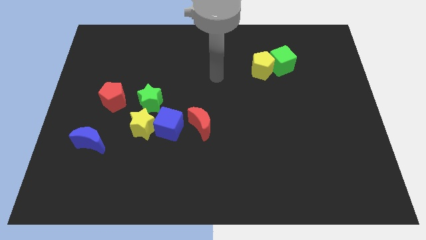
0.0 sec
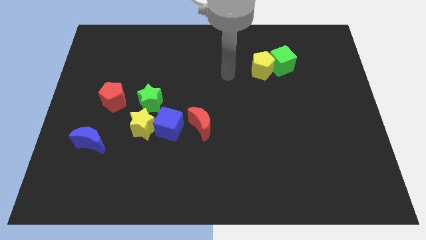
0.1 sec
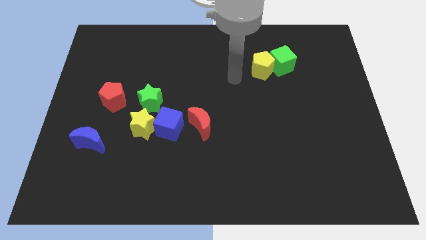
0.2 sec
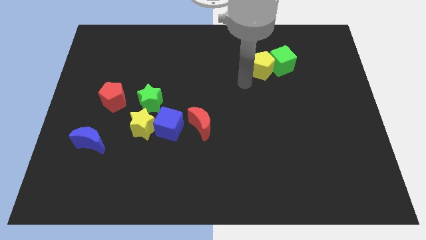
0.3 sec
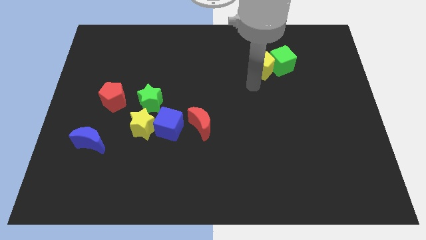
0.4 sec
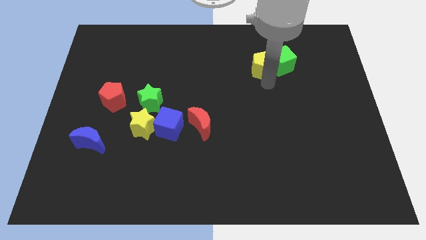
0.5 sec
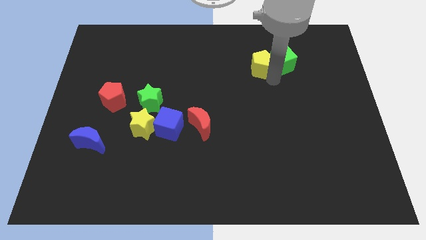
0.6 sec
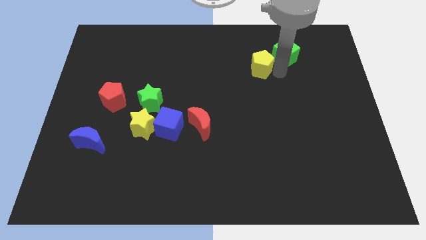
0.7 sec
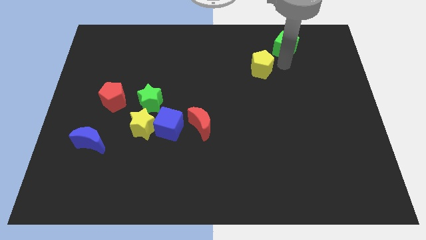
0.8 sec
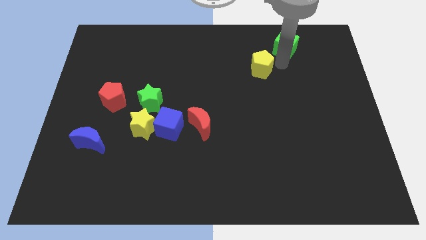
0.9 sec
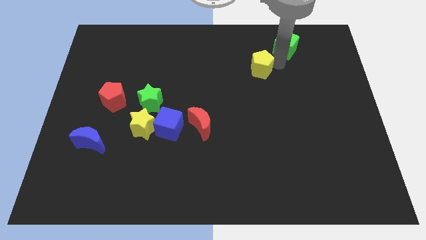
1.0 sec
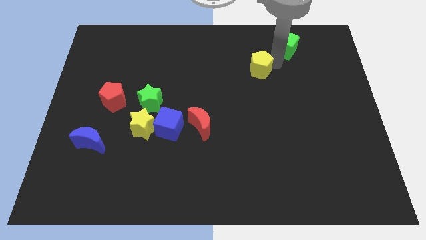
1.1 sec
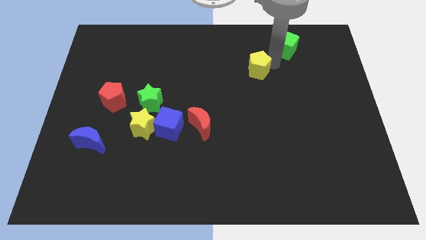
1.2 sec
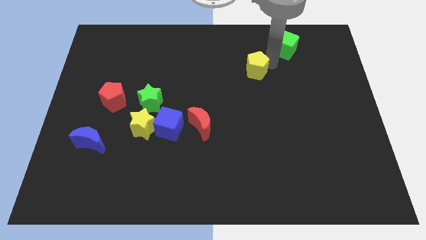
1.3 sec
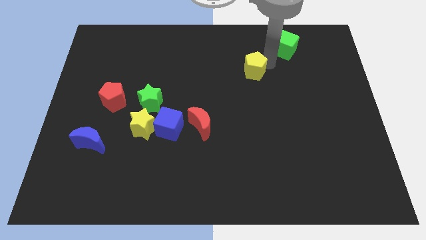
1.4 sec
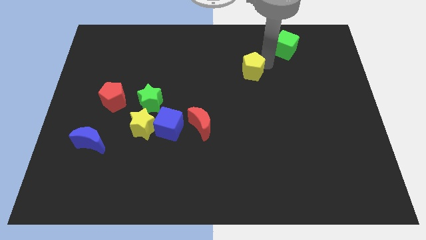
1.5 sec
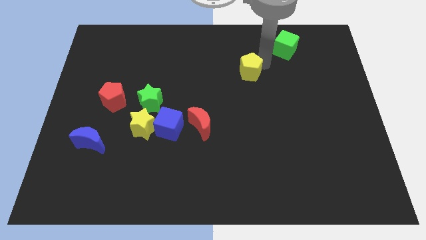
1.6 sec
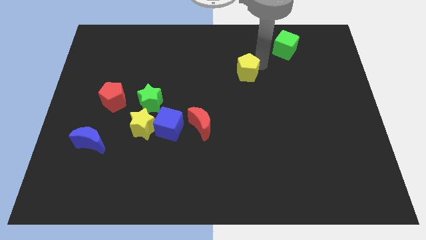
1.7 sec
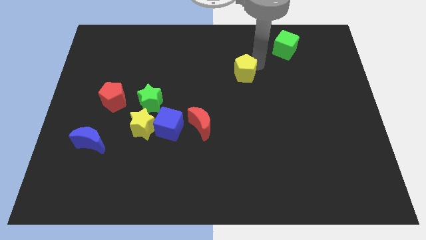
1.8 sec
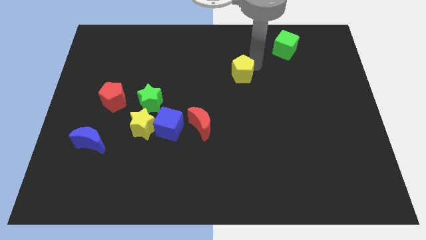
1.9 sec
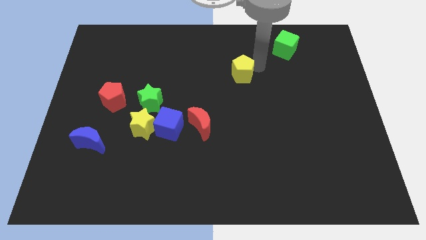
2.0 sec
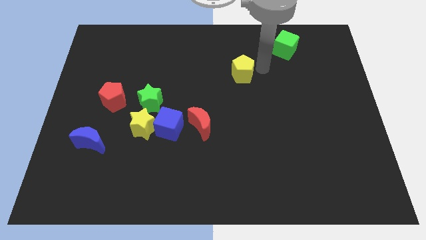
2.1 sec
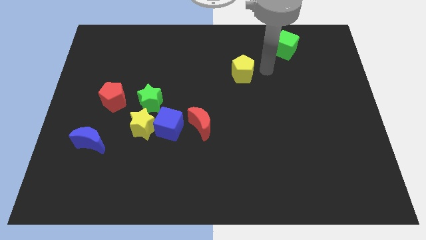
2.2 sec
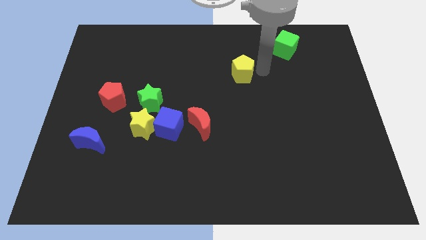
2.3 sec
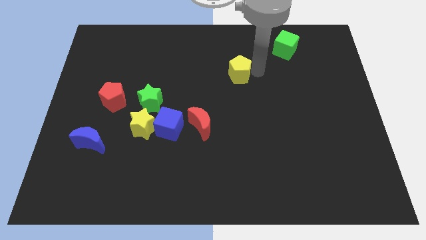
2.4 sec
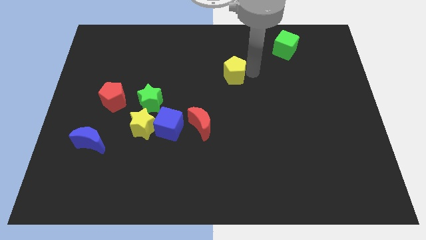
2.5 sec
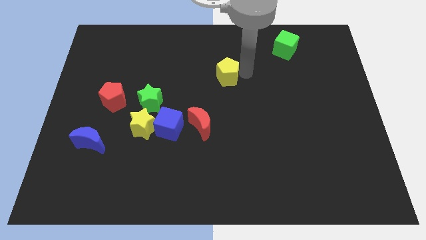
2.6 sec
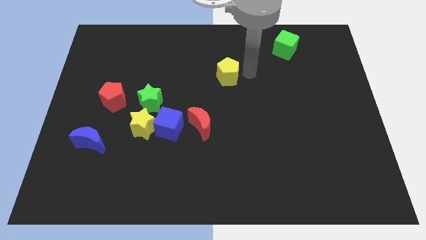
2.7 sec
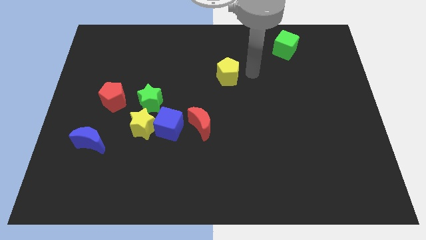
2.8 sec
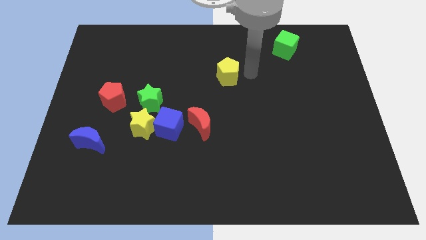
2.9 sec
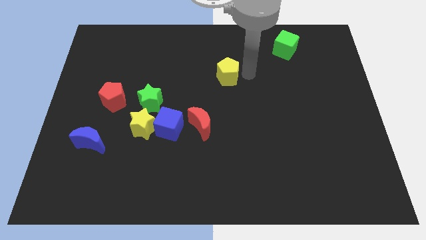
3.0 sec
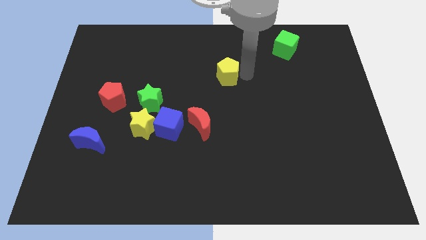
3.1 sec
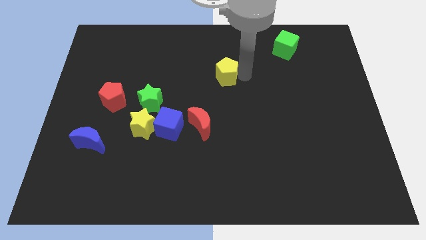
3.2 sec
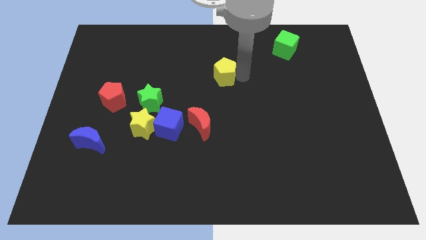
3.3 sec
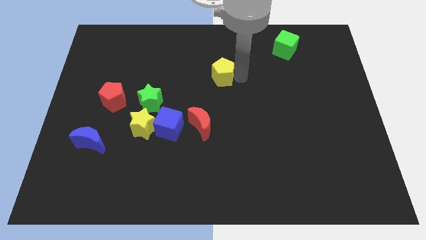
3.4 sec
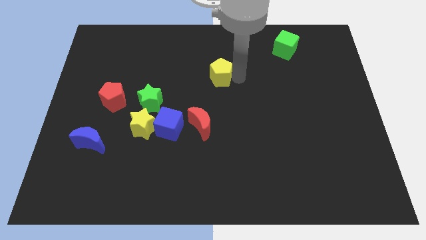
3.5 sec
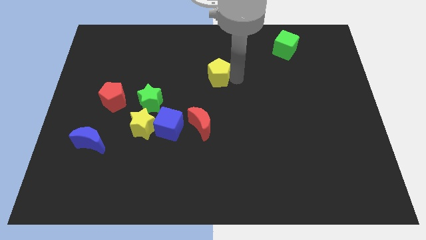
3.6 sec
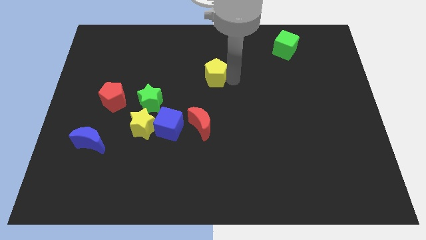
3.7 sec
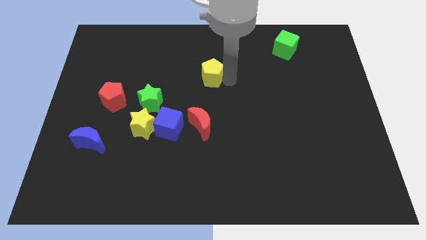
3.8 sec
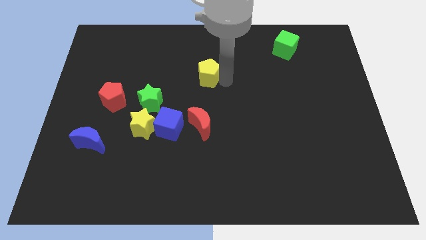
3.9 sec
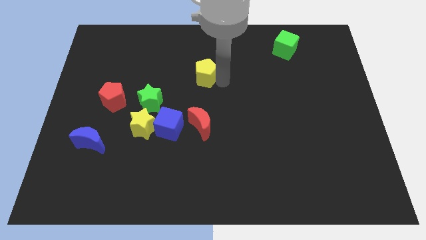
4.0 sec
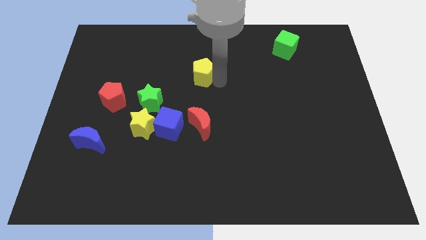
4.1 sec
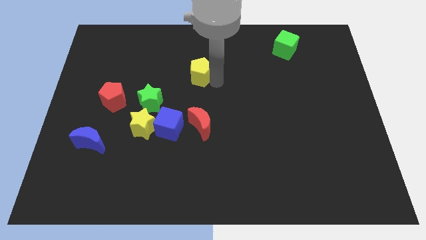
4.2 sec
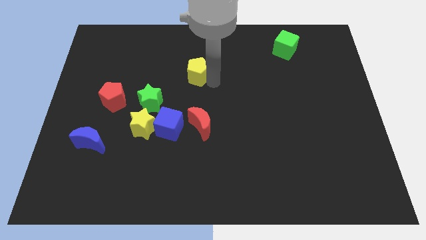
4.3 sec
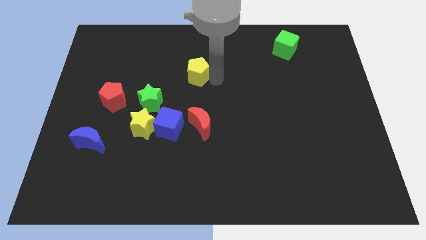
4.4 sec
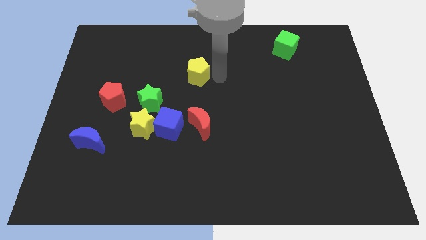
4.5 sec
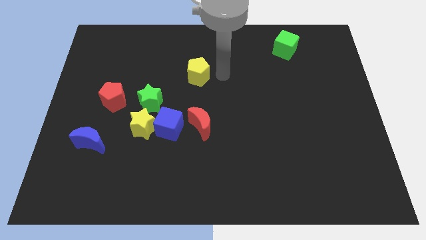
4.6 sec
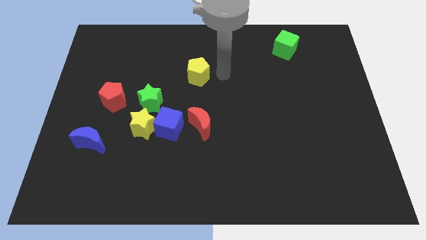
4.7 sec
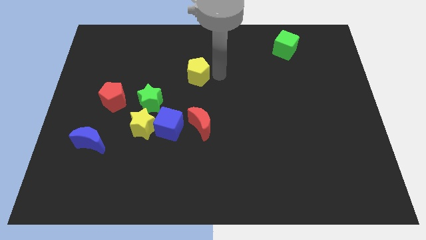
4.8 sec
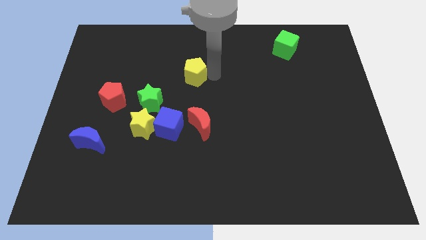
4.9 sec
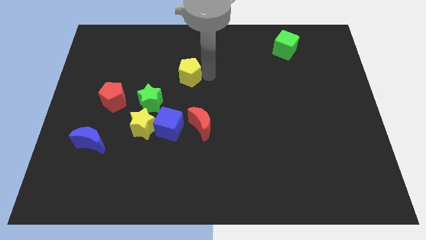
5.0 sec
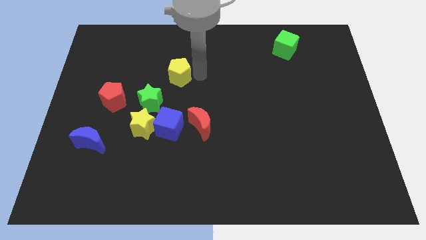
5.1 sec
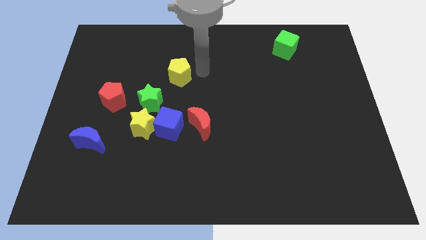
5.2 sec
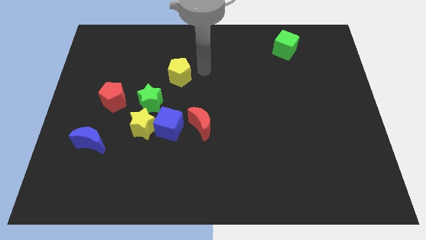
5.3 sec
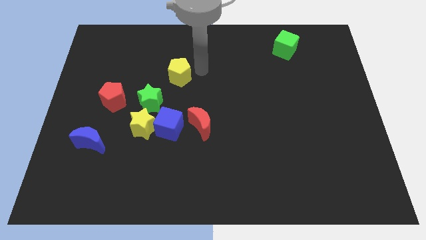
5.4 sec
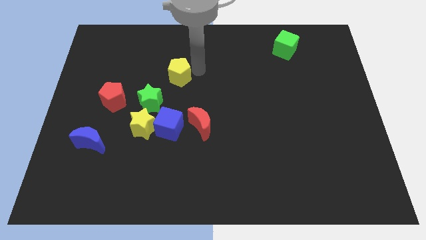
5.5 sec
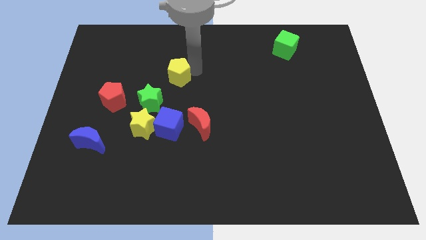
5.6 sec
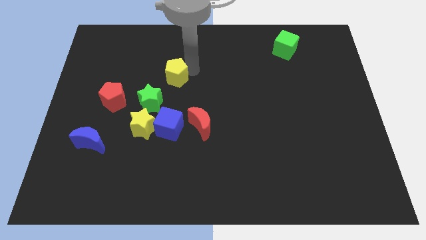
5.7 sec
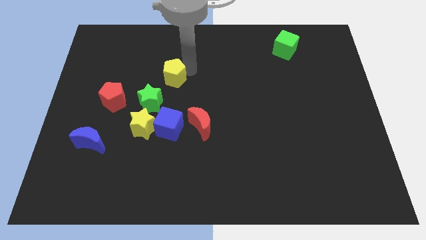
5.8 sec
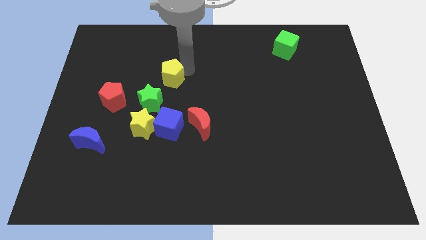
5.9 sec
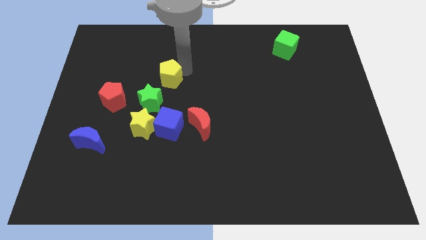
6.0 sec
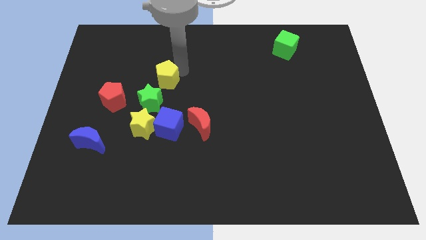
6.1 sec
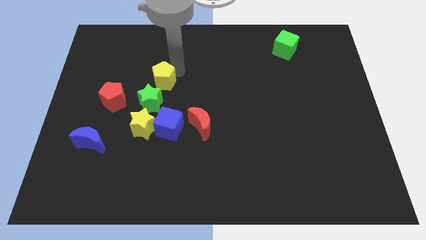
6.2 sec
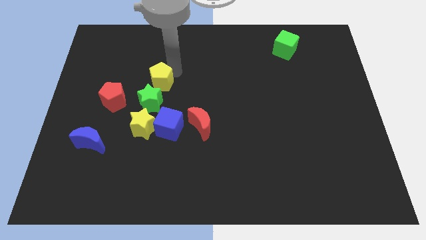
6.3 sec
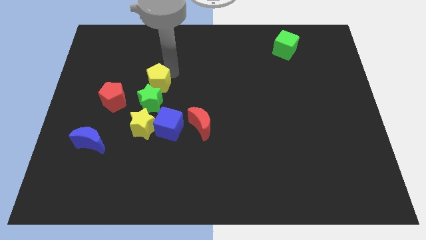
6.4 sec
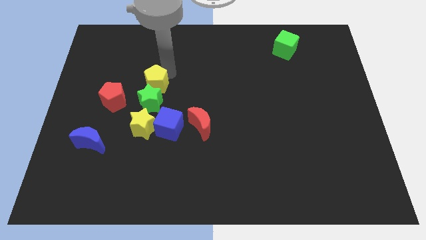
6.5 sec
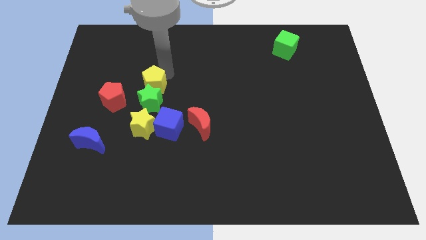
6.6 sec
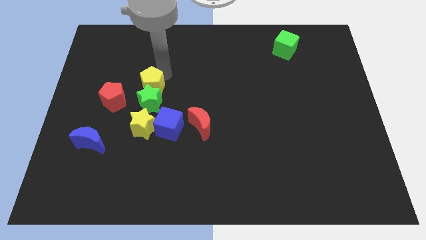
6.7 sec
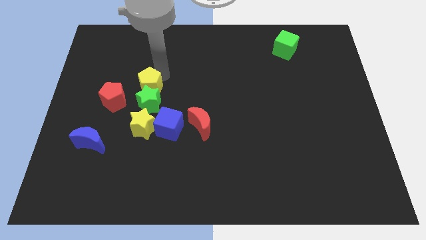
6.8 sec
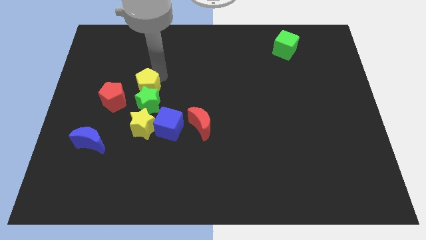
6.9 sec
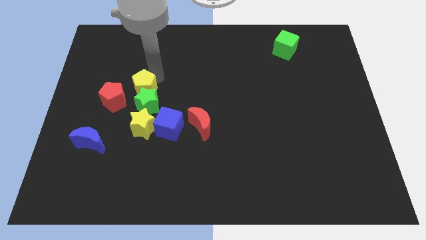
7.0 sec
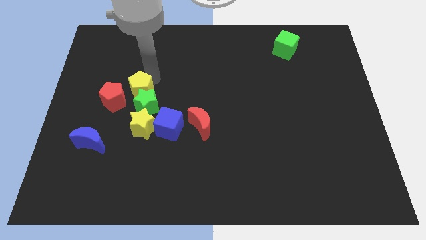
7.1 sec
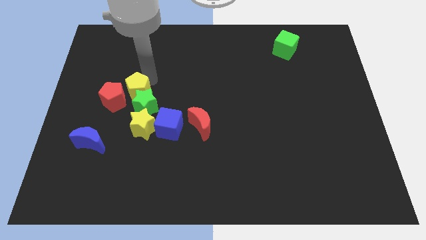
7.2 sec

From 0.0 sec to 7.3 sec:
push the yellow pentagon to the red pentagon
